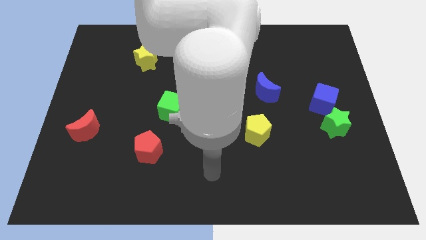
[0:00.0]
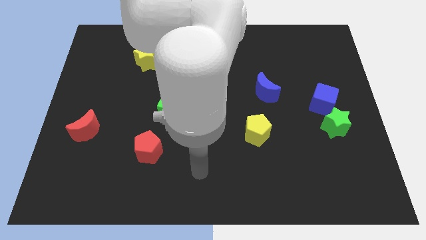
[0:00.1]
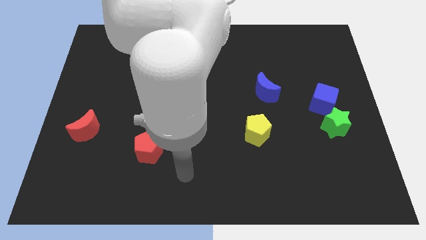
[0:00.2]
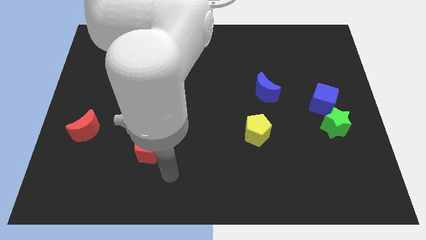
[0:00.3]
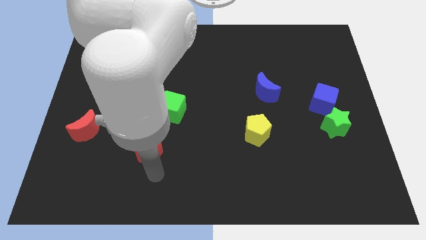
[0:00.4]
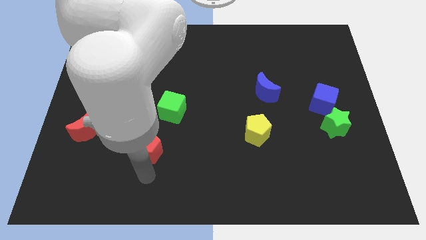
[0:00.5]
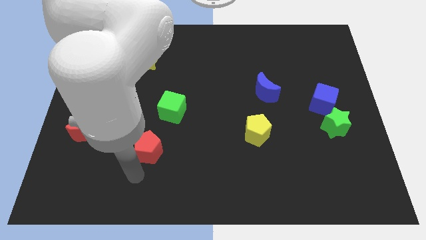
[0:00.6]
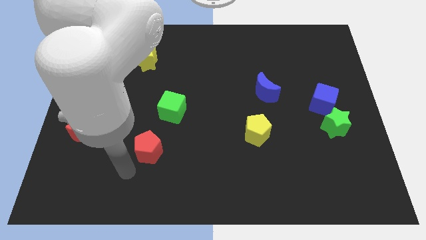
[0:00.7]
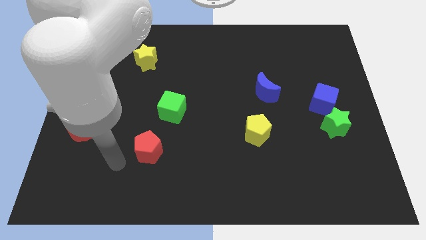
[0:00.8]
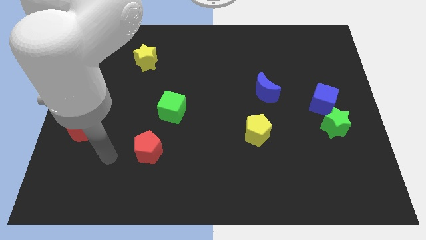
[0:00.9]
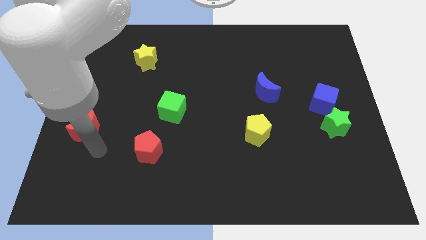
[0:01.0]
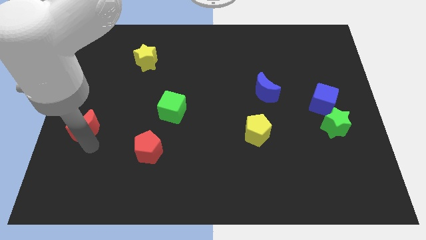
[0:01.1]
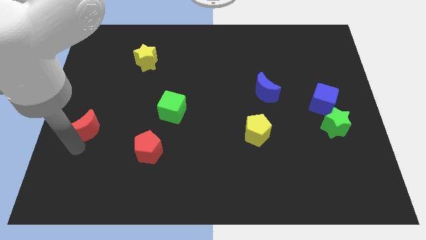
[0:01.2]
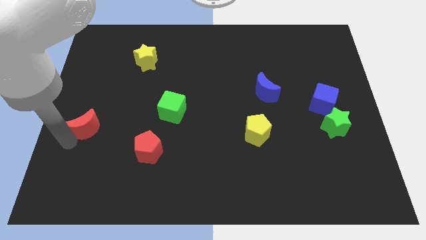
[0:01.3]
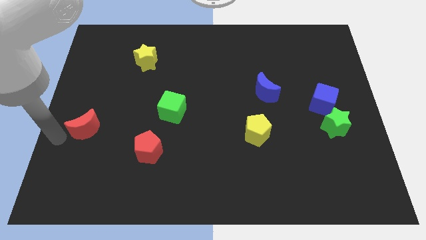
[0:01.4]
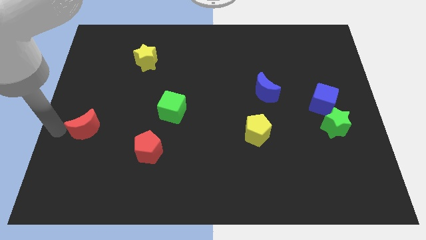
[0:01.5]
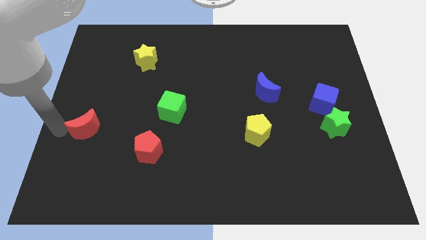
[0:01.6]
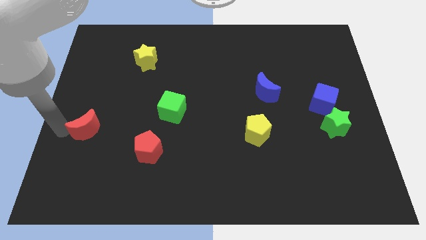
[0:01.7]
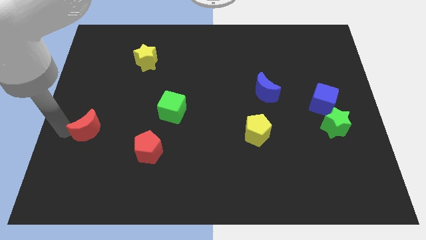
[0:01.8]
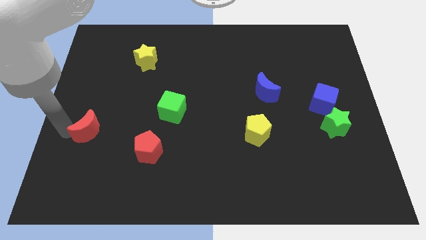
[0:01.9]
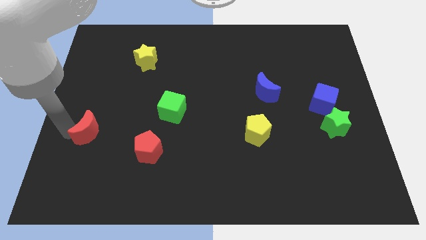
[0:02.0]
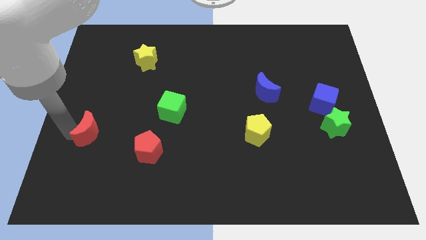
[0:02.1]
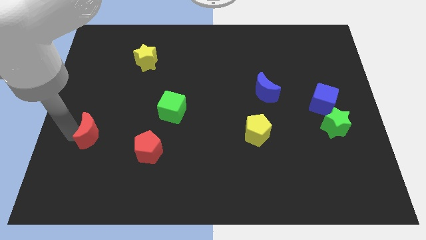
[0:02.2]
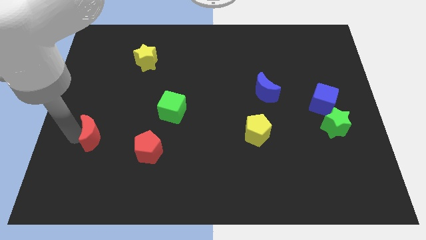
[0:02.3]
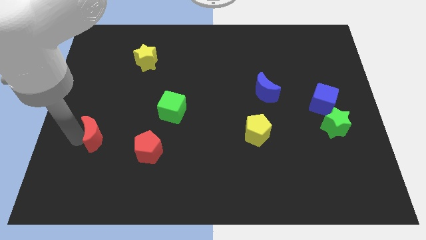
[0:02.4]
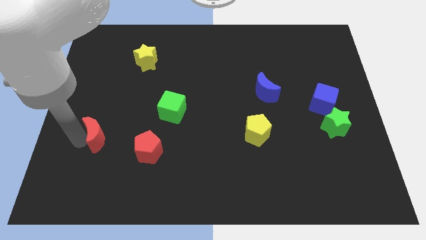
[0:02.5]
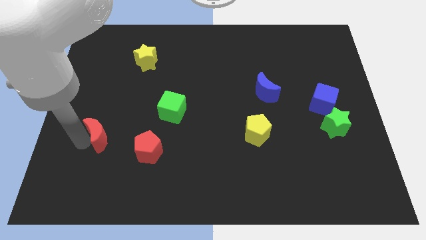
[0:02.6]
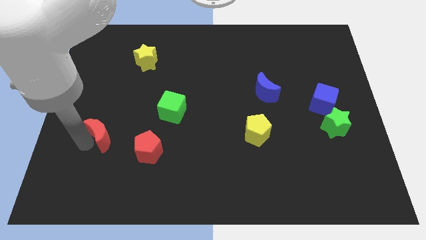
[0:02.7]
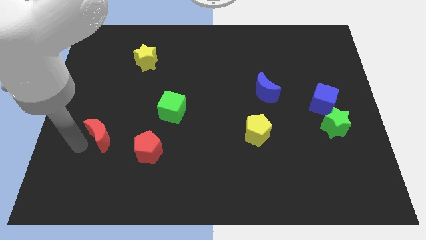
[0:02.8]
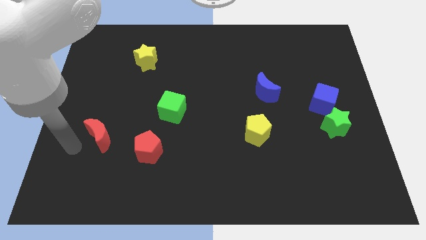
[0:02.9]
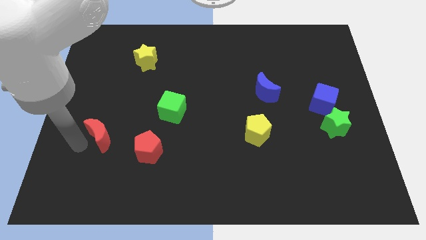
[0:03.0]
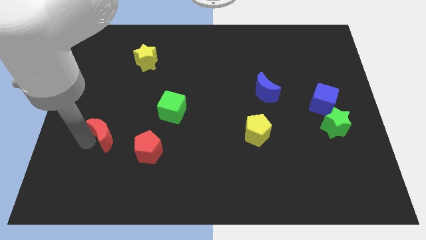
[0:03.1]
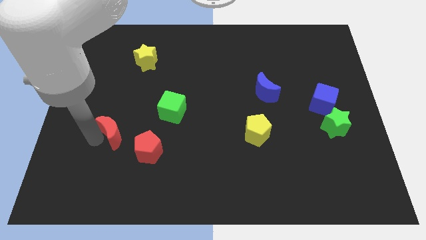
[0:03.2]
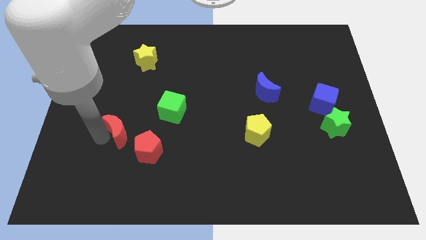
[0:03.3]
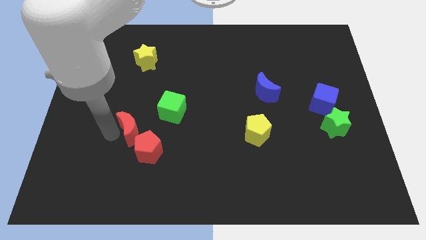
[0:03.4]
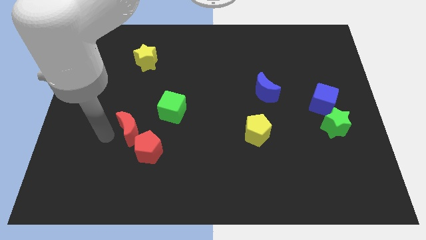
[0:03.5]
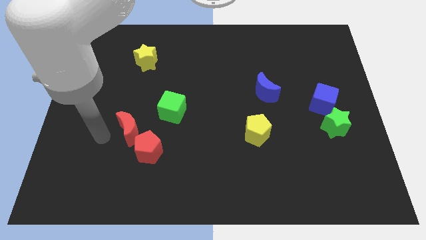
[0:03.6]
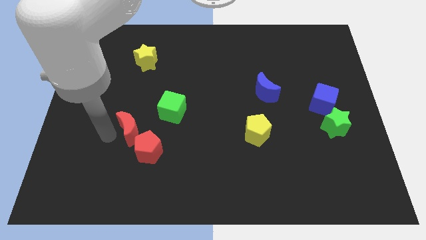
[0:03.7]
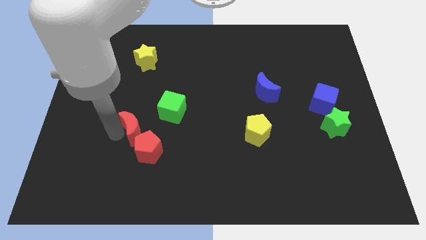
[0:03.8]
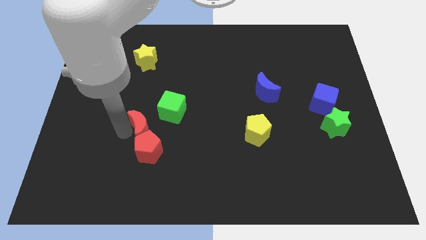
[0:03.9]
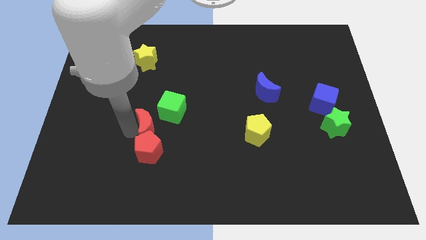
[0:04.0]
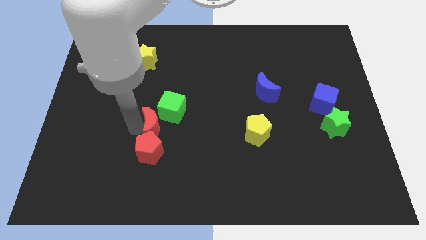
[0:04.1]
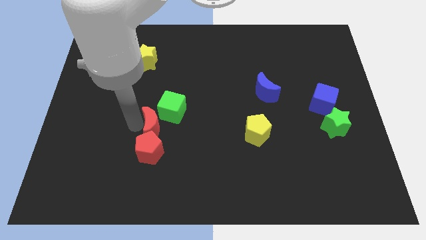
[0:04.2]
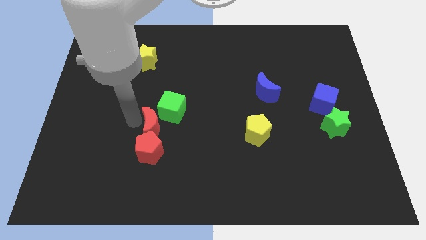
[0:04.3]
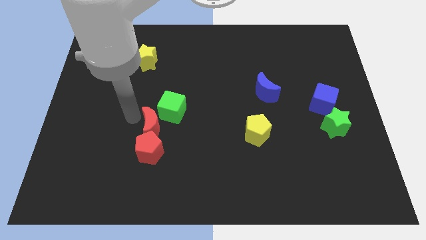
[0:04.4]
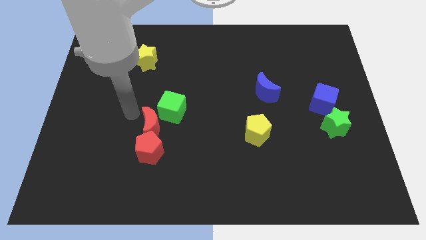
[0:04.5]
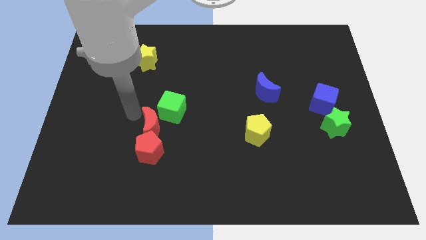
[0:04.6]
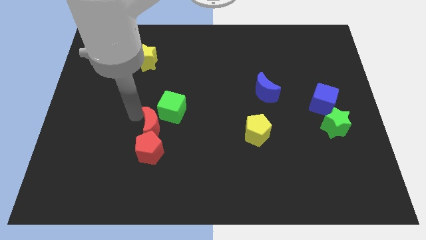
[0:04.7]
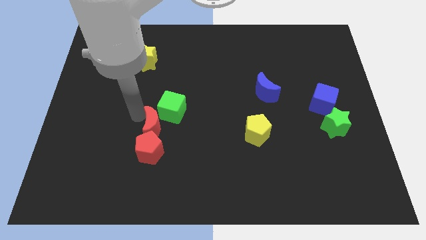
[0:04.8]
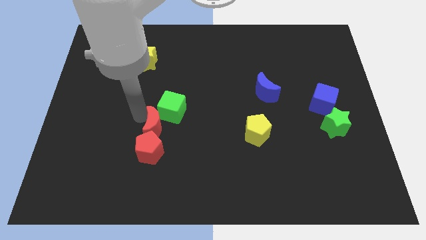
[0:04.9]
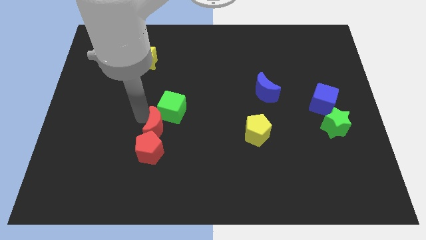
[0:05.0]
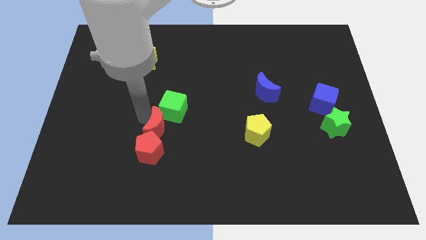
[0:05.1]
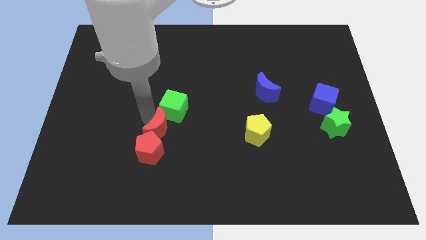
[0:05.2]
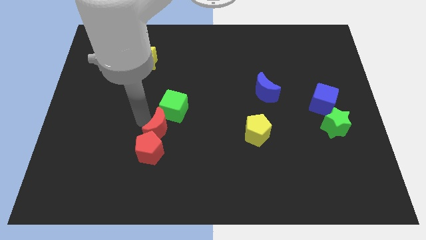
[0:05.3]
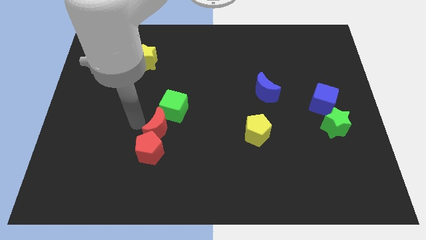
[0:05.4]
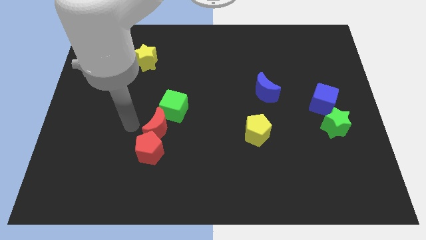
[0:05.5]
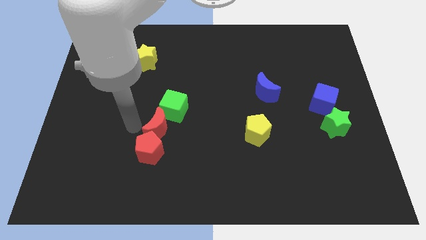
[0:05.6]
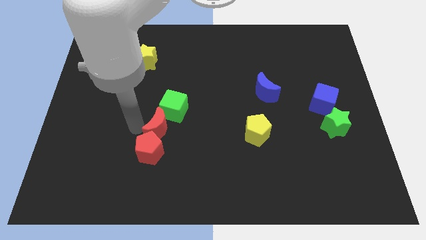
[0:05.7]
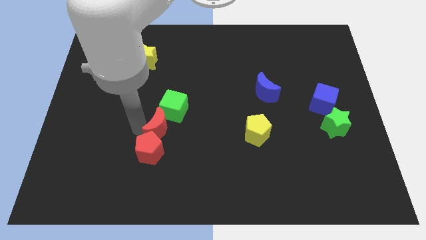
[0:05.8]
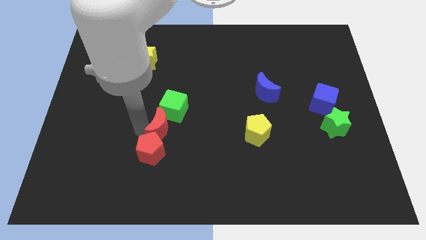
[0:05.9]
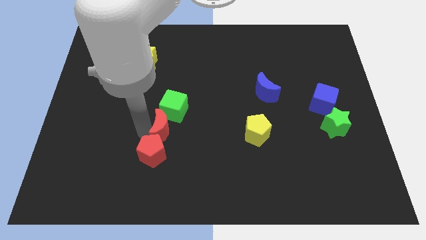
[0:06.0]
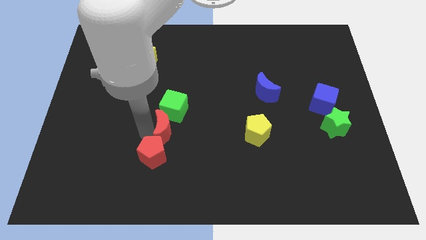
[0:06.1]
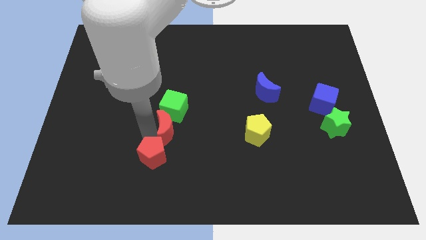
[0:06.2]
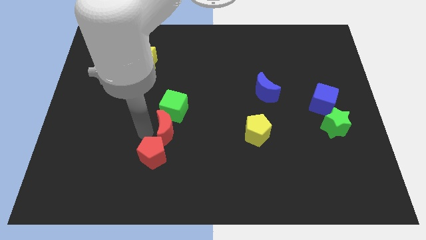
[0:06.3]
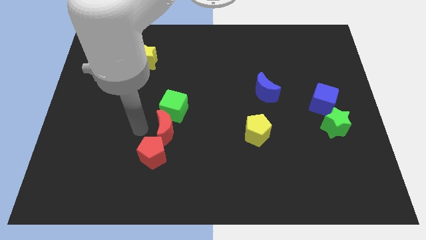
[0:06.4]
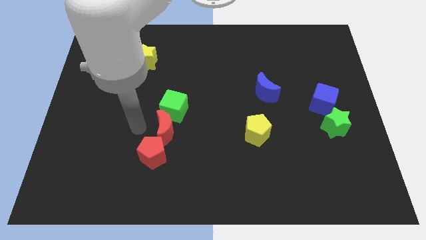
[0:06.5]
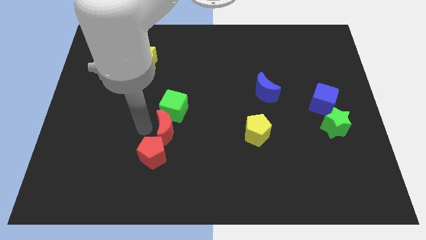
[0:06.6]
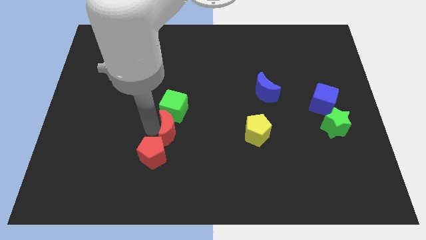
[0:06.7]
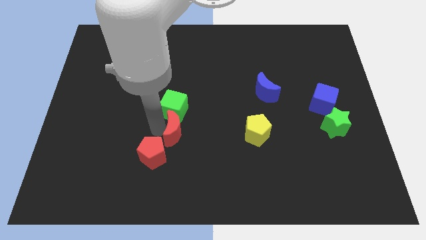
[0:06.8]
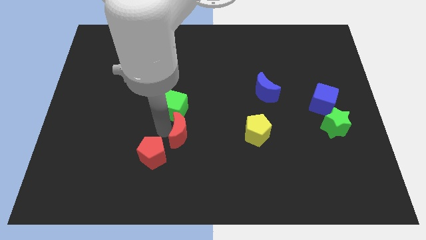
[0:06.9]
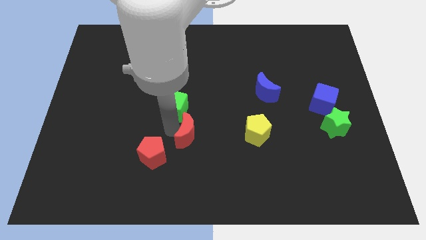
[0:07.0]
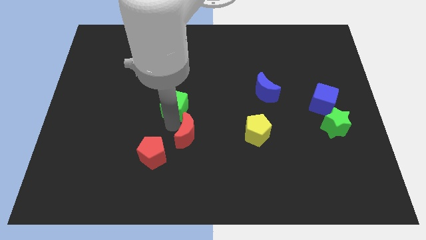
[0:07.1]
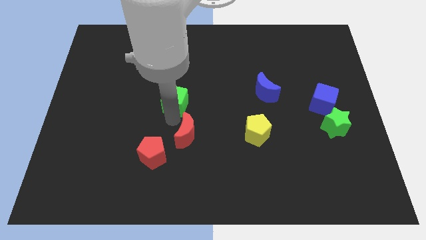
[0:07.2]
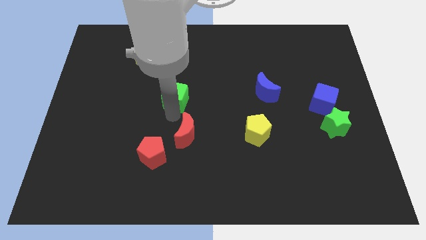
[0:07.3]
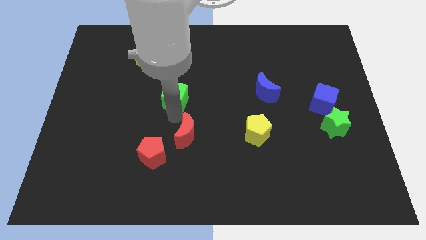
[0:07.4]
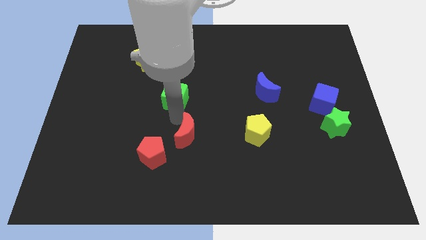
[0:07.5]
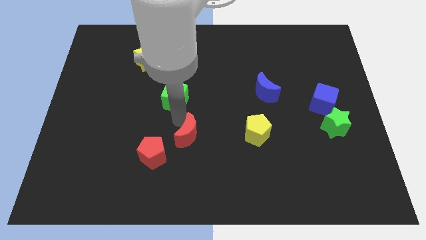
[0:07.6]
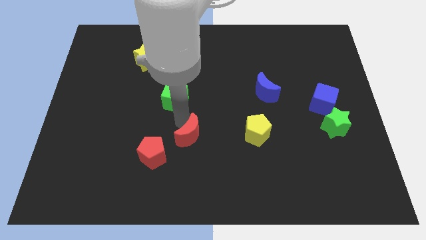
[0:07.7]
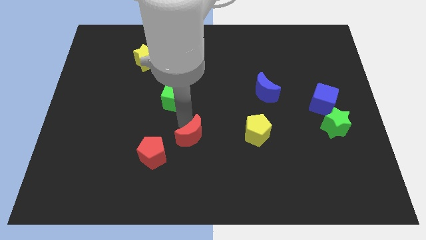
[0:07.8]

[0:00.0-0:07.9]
move the red moon to the right side of the red pentagon
